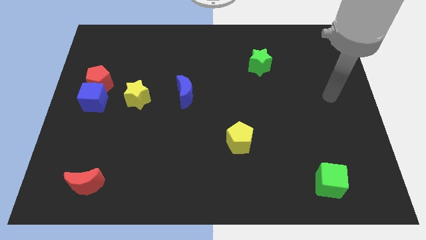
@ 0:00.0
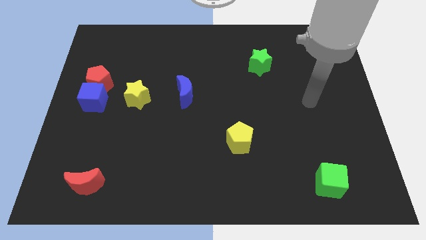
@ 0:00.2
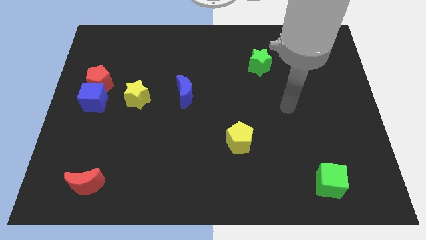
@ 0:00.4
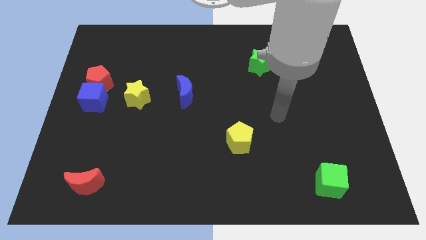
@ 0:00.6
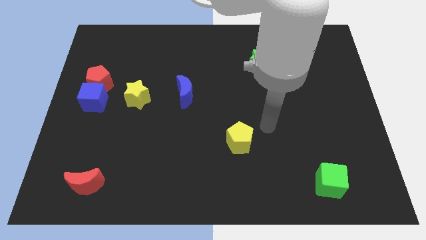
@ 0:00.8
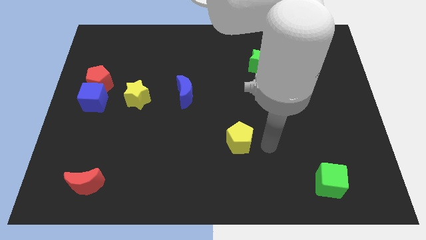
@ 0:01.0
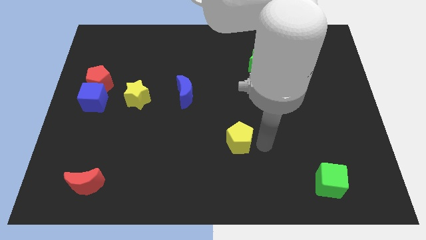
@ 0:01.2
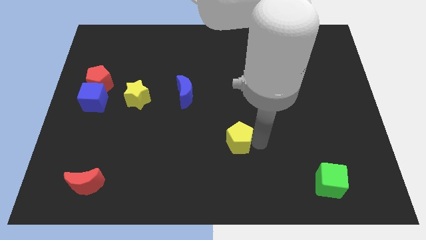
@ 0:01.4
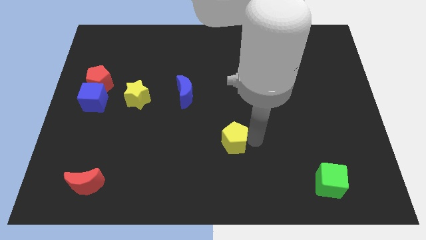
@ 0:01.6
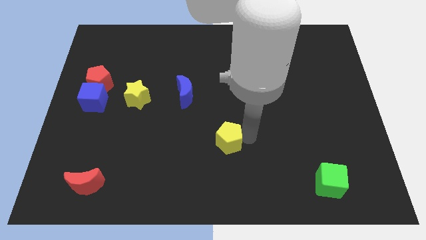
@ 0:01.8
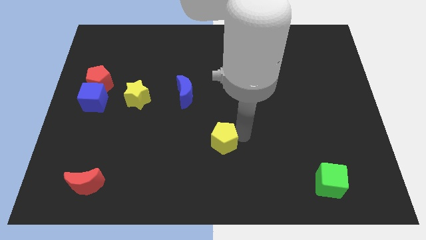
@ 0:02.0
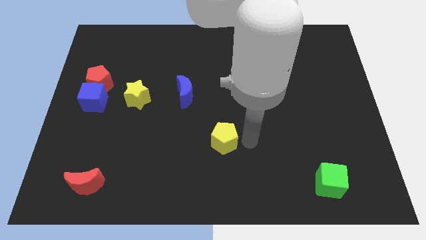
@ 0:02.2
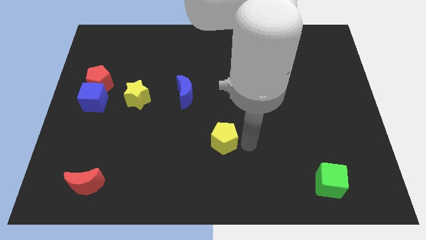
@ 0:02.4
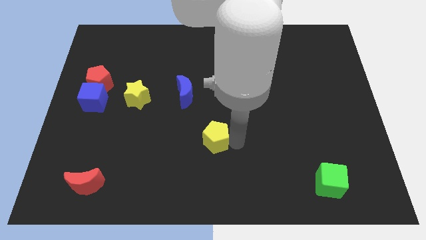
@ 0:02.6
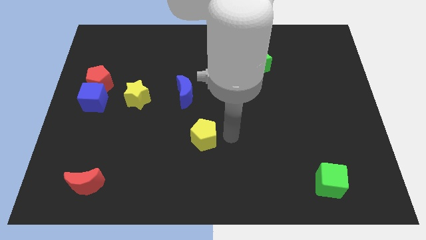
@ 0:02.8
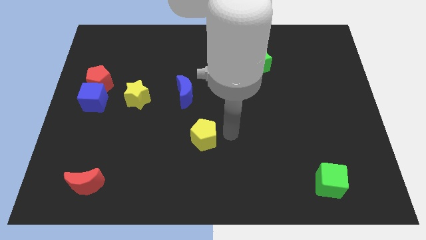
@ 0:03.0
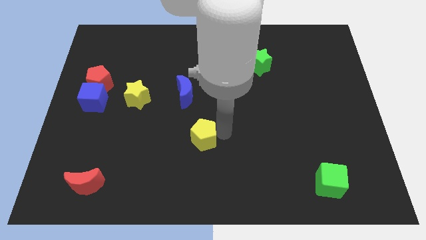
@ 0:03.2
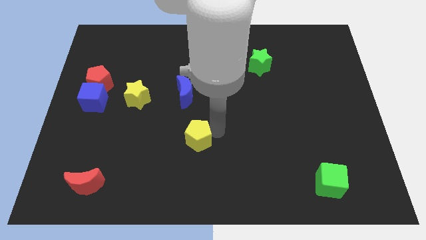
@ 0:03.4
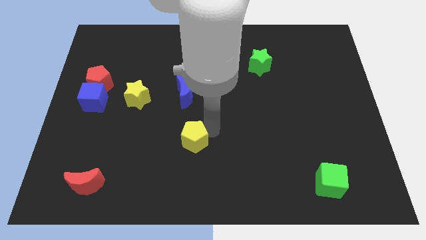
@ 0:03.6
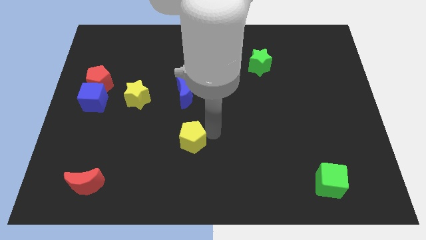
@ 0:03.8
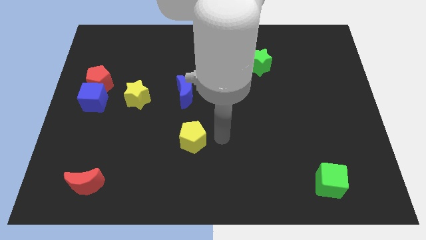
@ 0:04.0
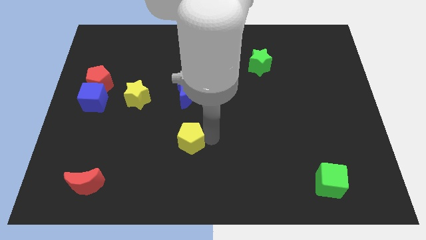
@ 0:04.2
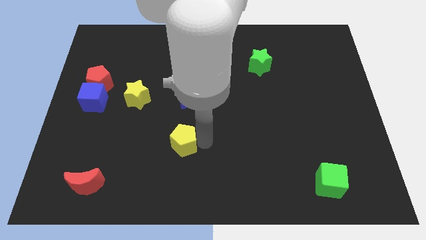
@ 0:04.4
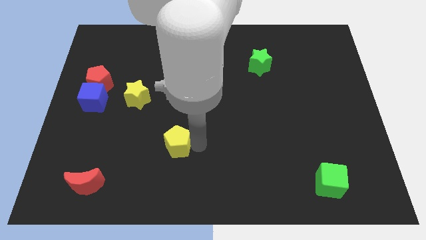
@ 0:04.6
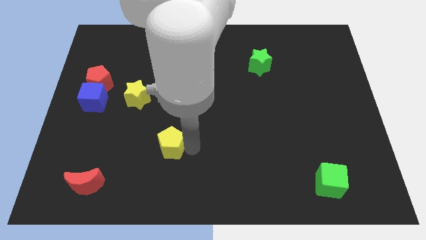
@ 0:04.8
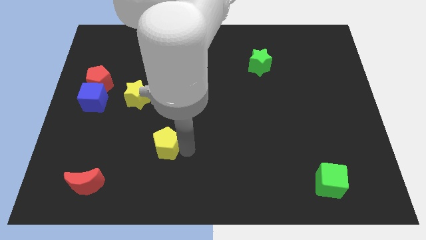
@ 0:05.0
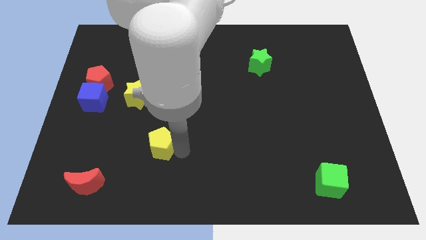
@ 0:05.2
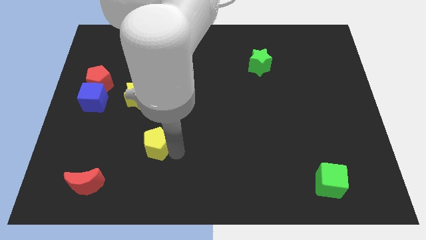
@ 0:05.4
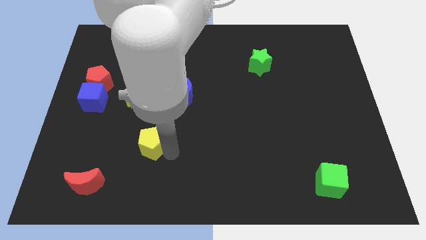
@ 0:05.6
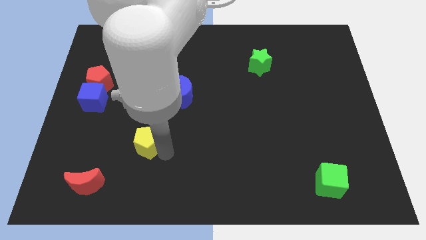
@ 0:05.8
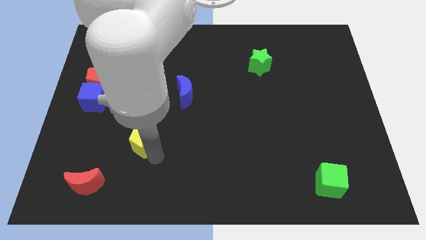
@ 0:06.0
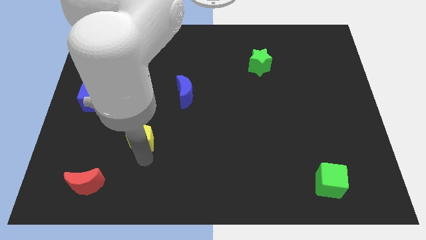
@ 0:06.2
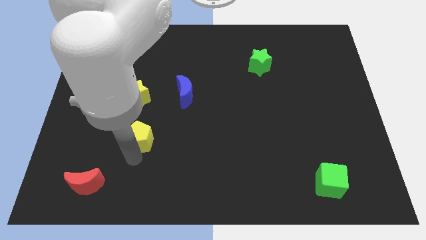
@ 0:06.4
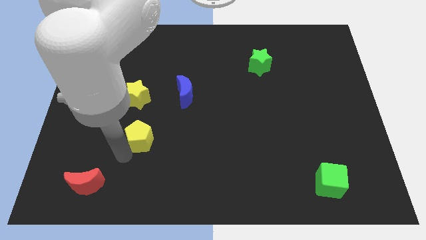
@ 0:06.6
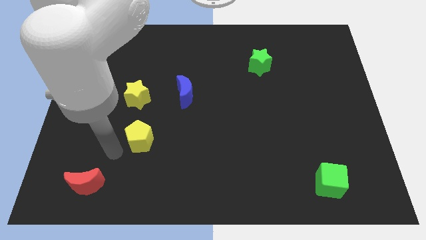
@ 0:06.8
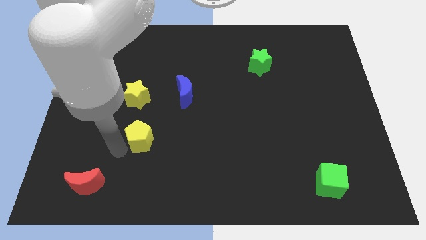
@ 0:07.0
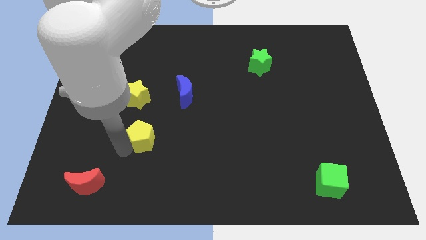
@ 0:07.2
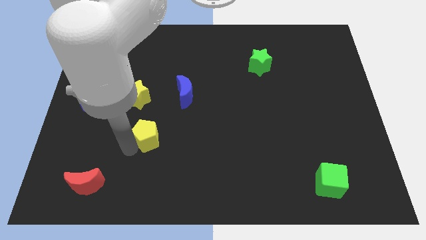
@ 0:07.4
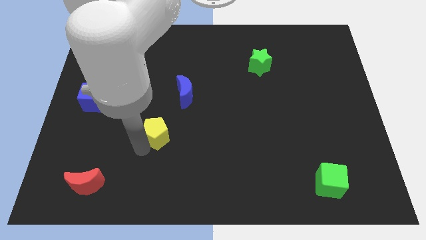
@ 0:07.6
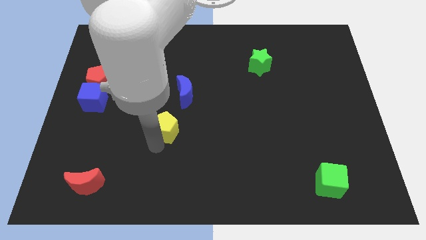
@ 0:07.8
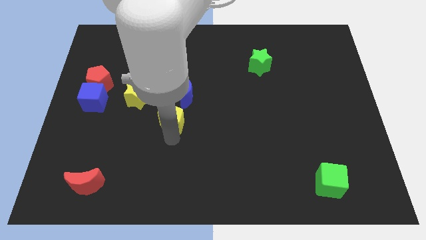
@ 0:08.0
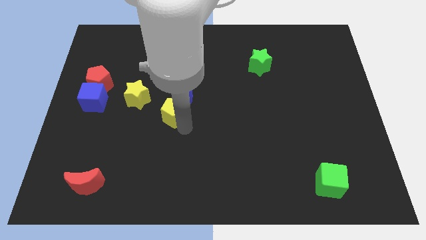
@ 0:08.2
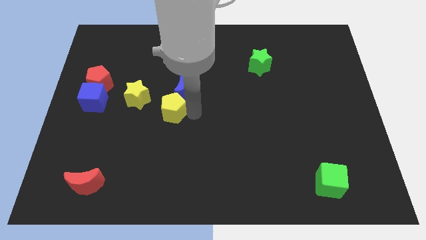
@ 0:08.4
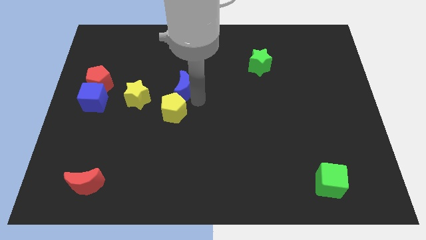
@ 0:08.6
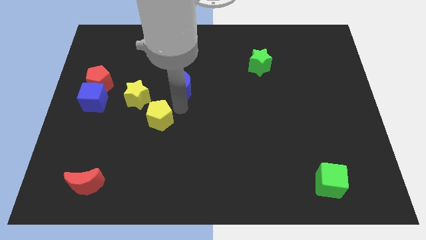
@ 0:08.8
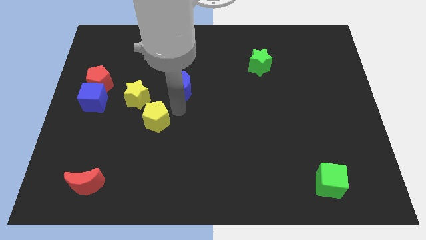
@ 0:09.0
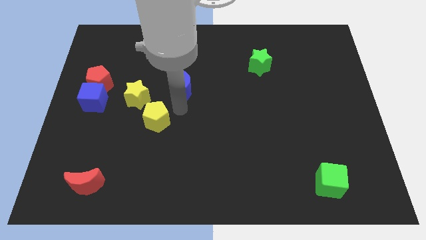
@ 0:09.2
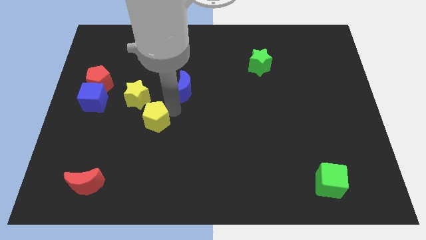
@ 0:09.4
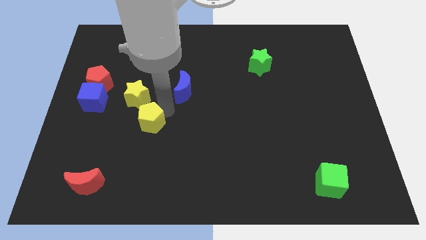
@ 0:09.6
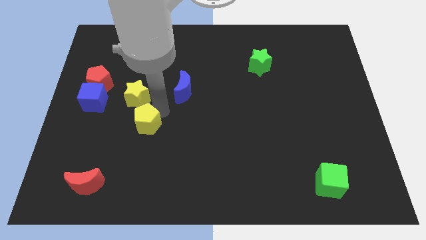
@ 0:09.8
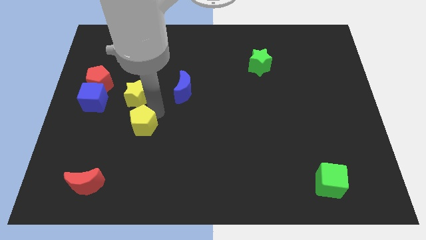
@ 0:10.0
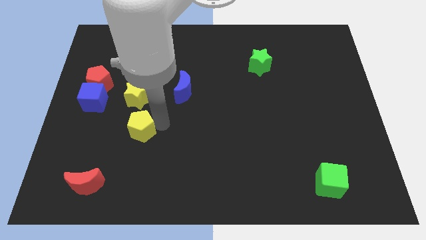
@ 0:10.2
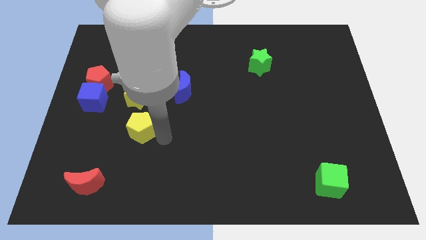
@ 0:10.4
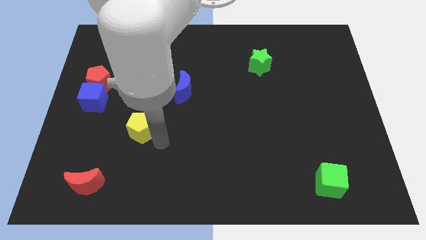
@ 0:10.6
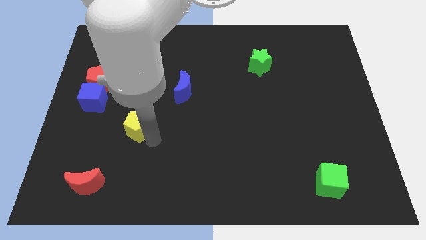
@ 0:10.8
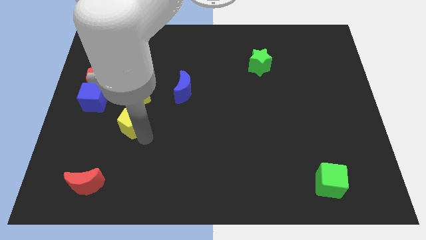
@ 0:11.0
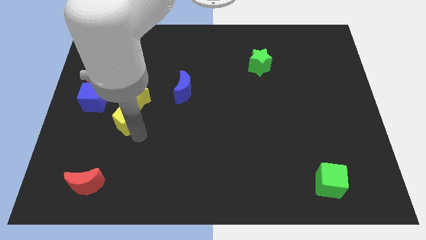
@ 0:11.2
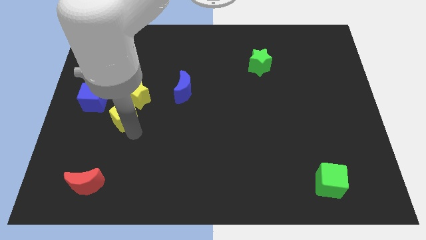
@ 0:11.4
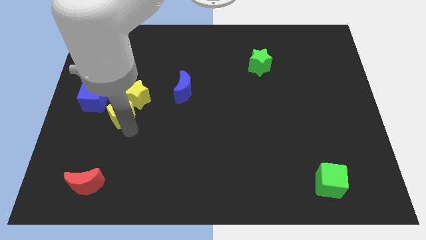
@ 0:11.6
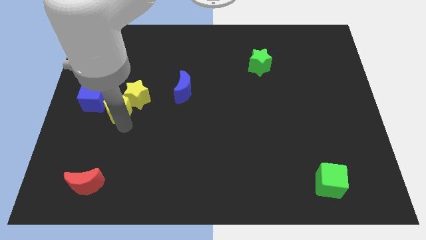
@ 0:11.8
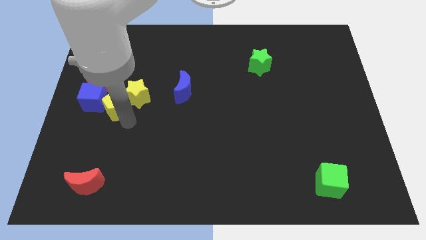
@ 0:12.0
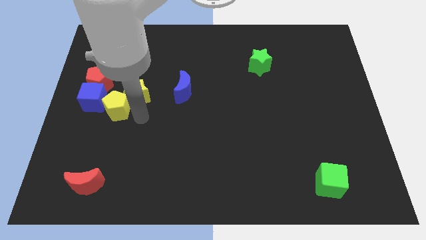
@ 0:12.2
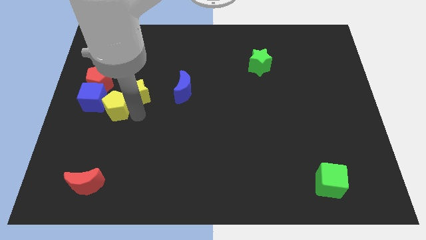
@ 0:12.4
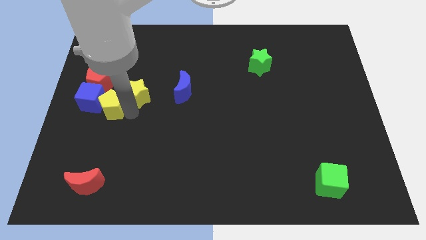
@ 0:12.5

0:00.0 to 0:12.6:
push the yellow pentagon towards the blue cube

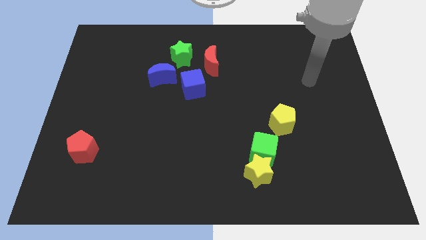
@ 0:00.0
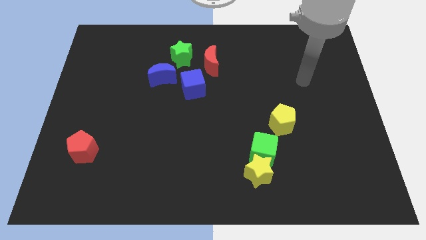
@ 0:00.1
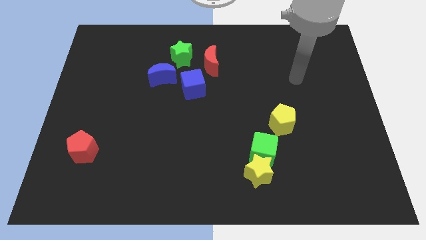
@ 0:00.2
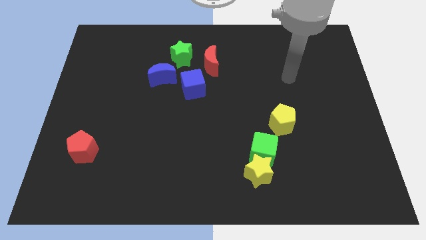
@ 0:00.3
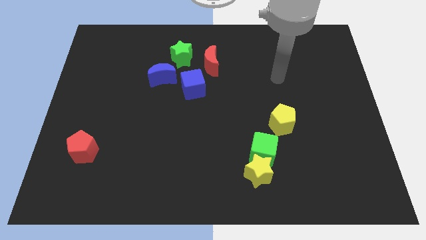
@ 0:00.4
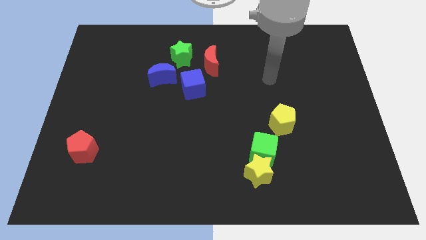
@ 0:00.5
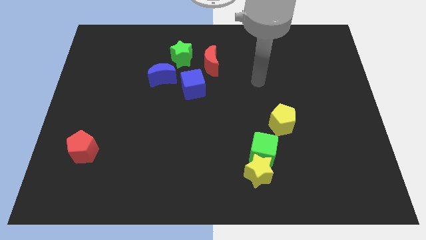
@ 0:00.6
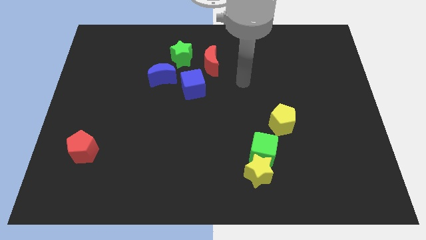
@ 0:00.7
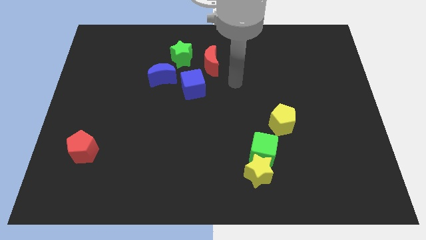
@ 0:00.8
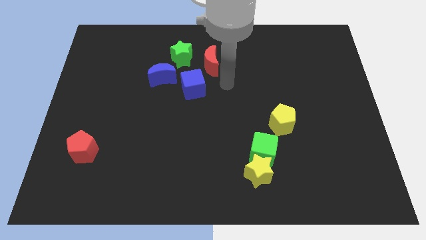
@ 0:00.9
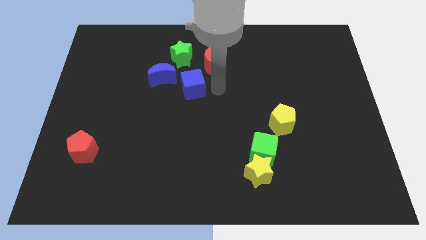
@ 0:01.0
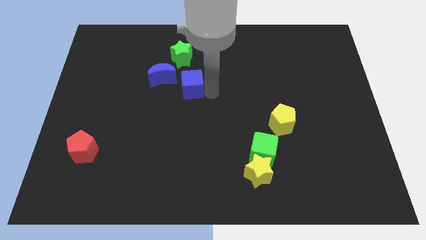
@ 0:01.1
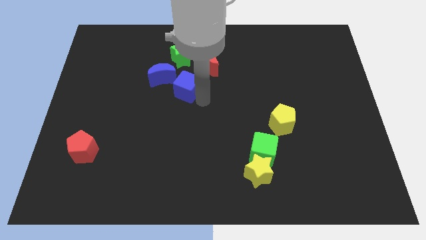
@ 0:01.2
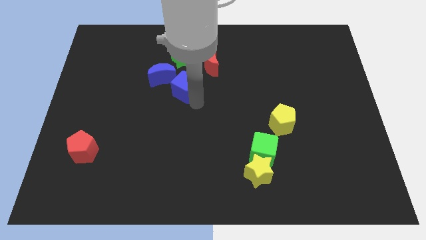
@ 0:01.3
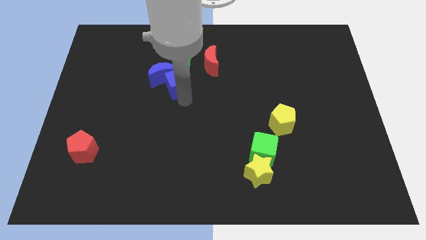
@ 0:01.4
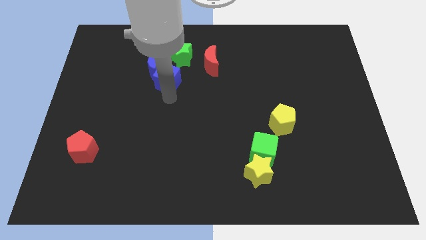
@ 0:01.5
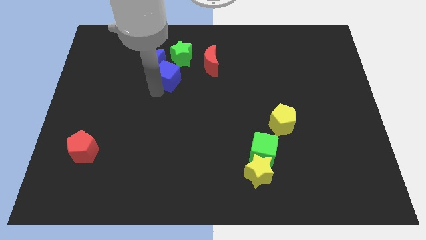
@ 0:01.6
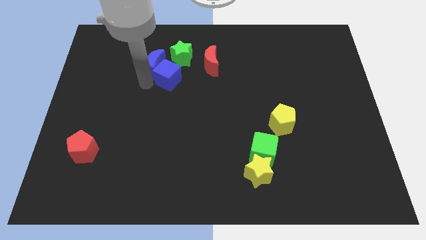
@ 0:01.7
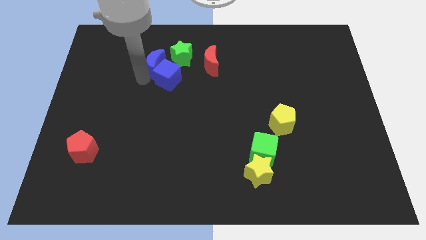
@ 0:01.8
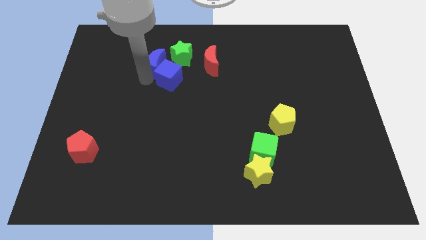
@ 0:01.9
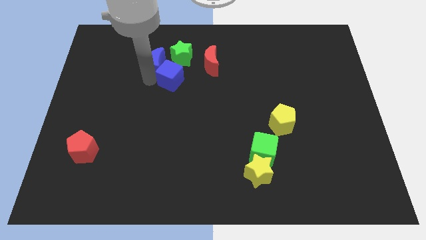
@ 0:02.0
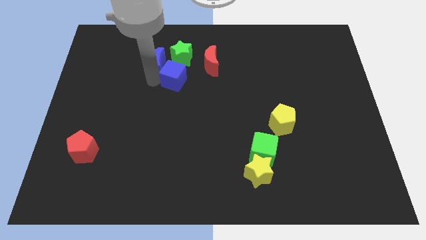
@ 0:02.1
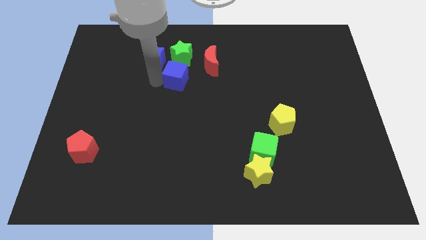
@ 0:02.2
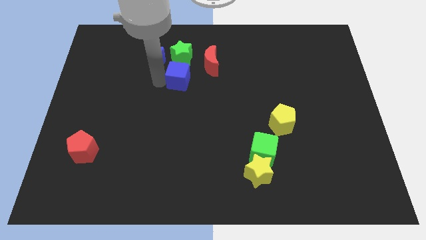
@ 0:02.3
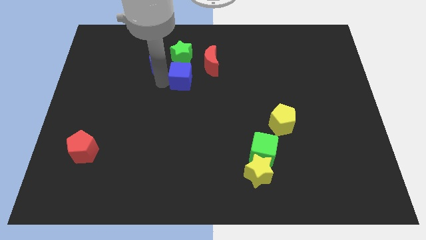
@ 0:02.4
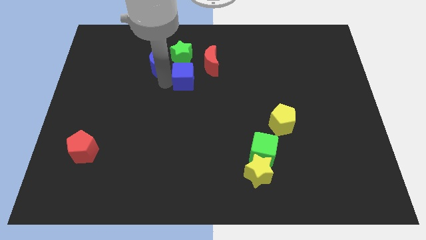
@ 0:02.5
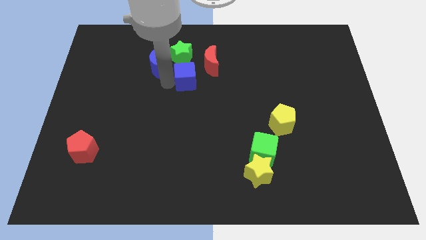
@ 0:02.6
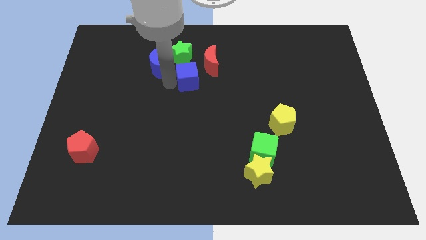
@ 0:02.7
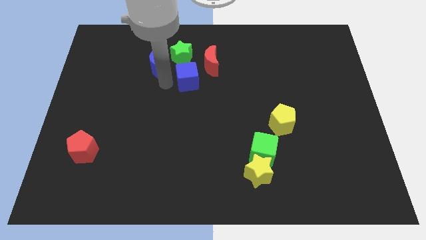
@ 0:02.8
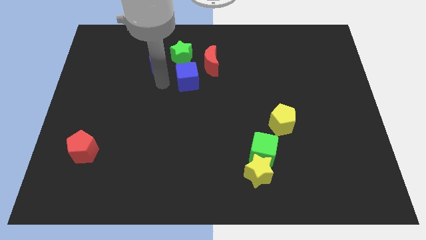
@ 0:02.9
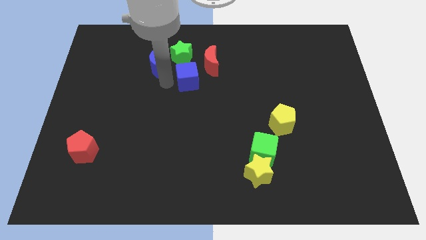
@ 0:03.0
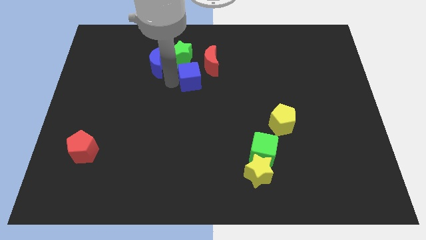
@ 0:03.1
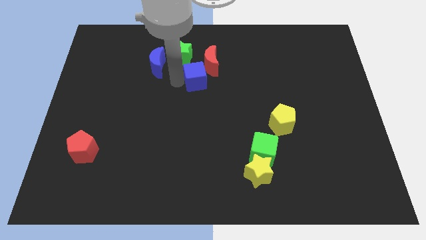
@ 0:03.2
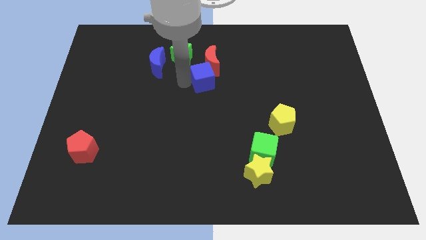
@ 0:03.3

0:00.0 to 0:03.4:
slide the blue cube next to the red moon
